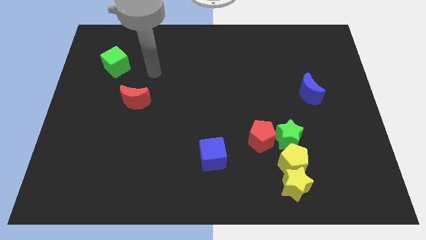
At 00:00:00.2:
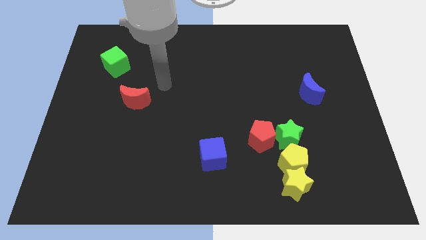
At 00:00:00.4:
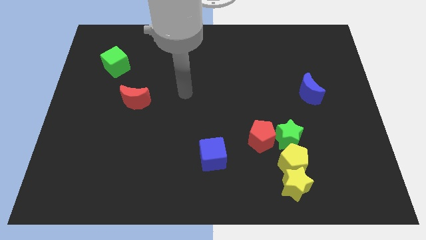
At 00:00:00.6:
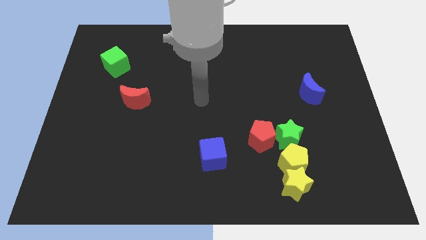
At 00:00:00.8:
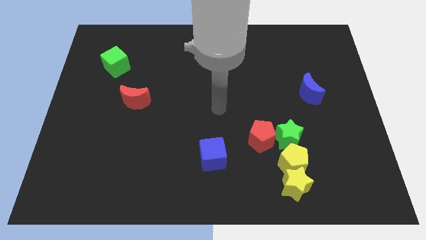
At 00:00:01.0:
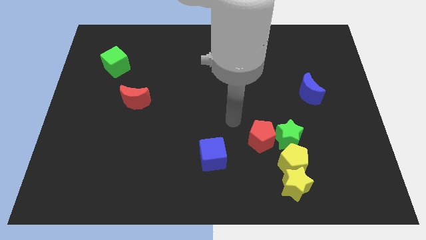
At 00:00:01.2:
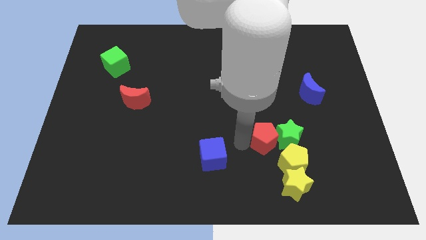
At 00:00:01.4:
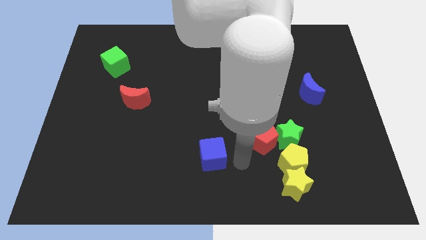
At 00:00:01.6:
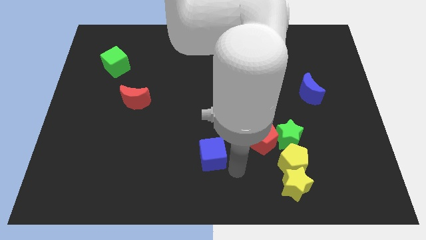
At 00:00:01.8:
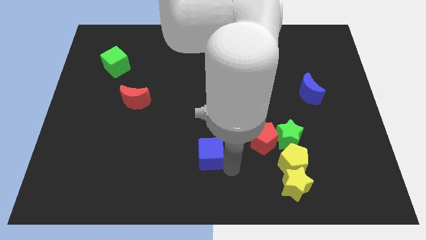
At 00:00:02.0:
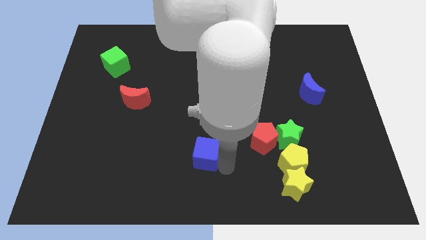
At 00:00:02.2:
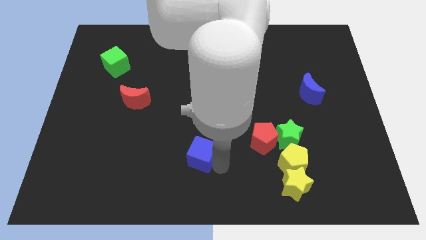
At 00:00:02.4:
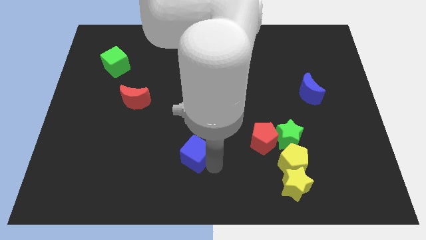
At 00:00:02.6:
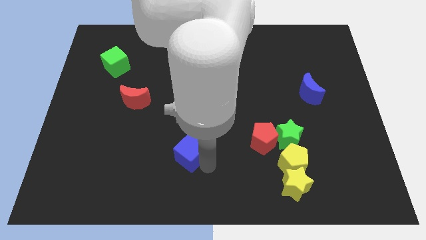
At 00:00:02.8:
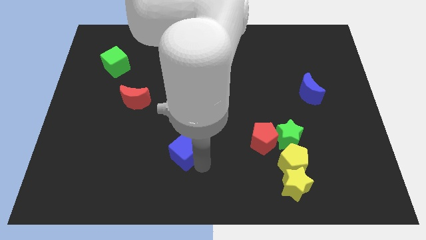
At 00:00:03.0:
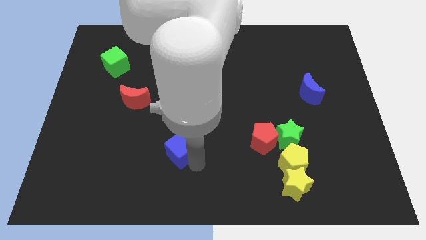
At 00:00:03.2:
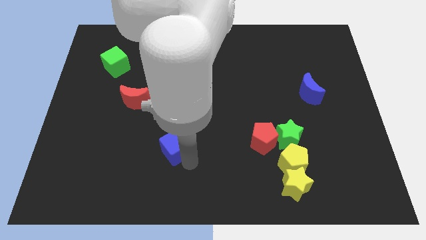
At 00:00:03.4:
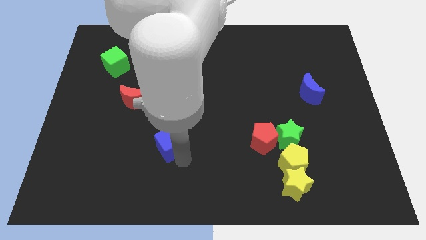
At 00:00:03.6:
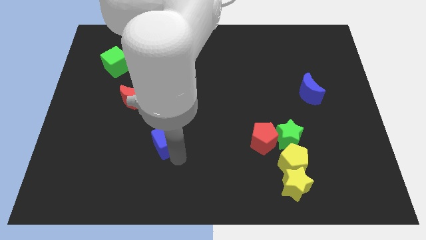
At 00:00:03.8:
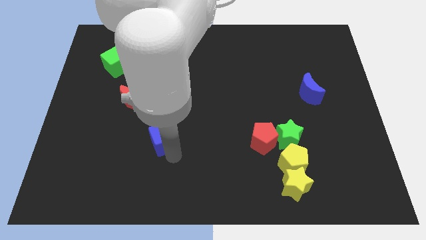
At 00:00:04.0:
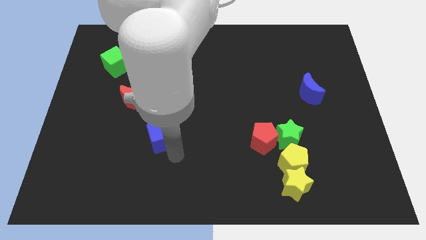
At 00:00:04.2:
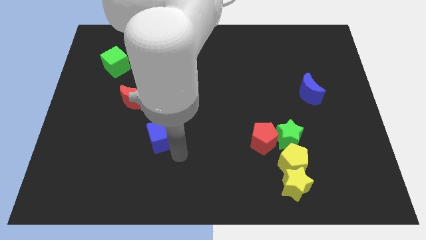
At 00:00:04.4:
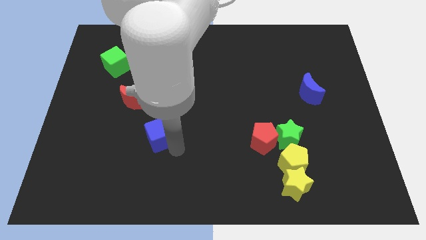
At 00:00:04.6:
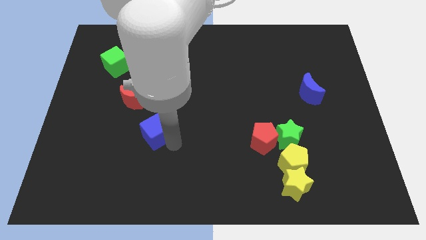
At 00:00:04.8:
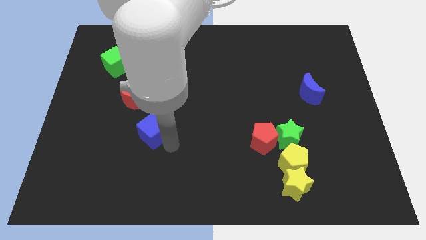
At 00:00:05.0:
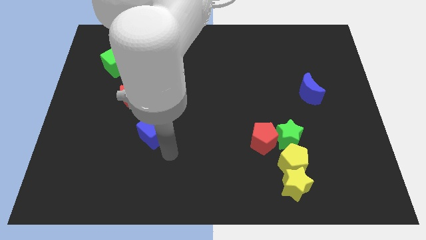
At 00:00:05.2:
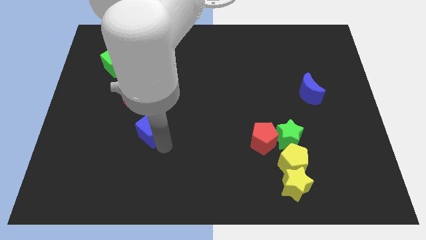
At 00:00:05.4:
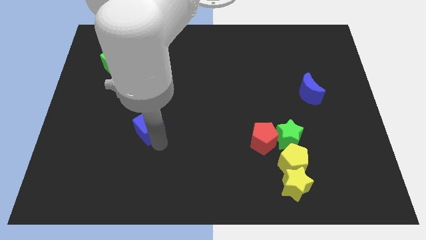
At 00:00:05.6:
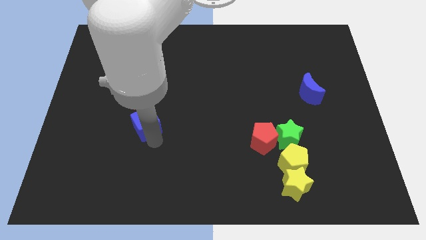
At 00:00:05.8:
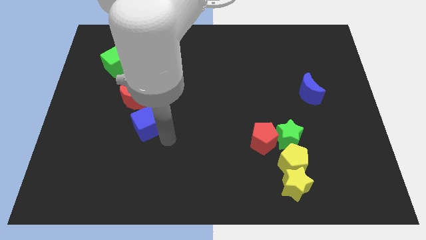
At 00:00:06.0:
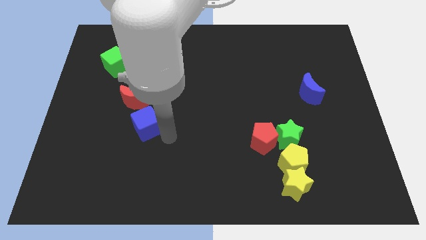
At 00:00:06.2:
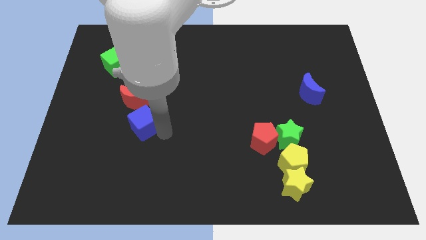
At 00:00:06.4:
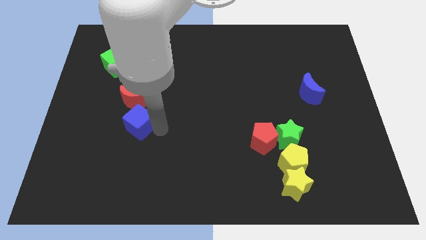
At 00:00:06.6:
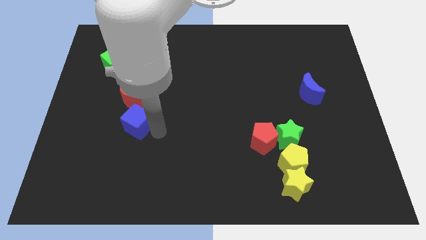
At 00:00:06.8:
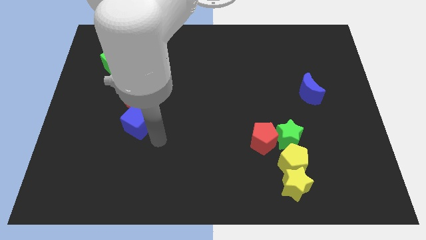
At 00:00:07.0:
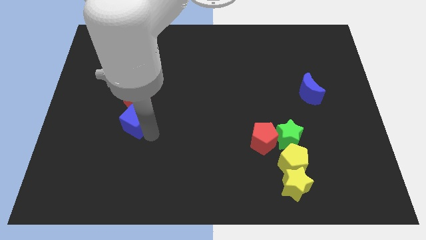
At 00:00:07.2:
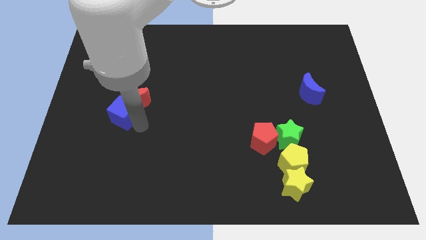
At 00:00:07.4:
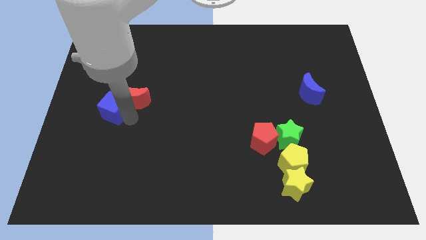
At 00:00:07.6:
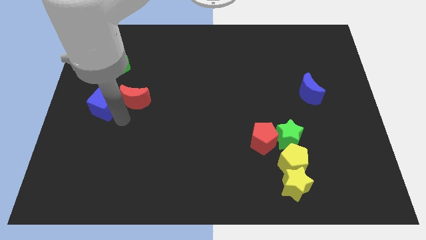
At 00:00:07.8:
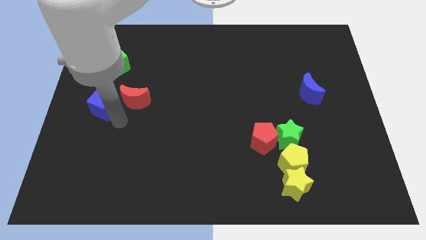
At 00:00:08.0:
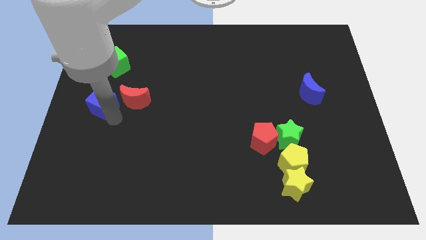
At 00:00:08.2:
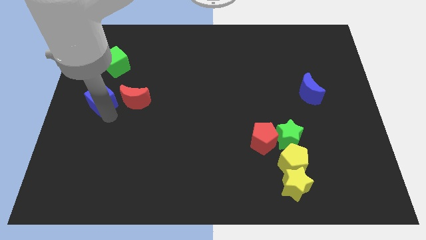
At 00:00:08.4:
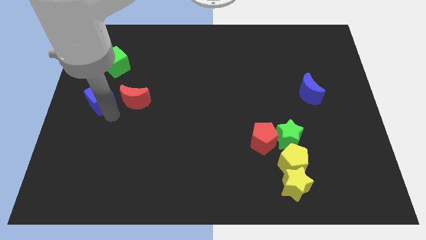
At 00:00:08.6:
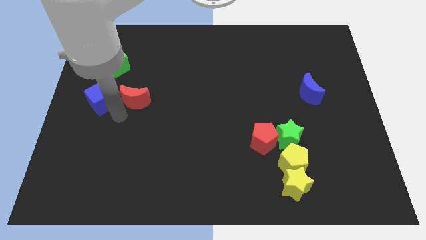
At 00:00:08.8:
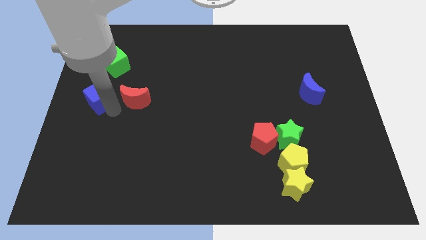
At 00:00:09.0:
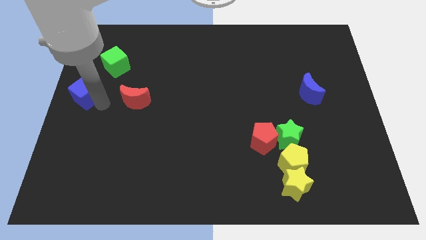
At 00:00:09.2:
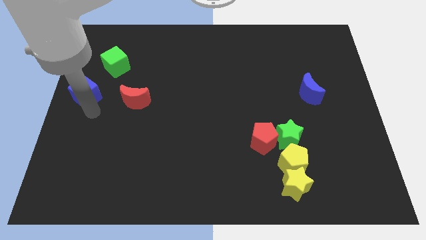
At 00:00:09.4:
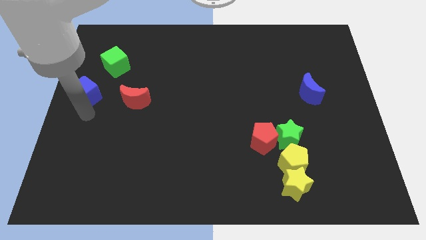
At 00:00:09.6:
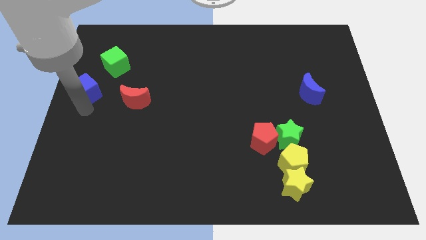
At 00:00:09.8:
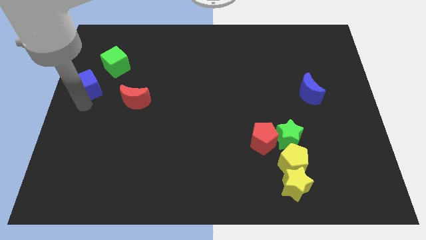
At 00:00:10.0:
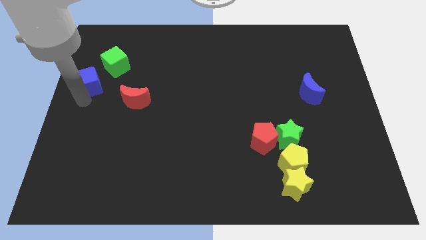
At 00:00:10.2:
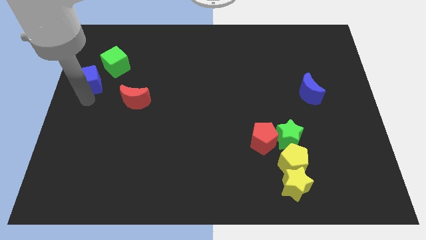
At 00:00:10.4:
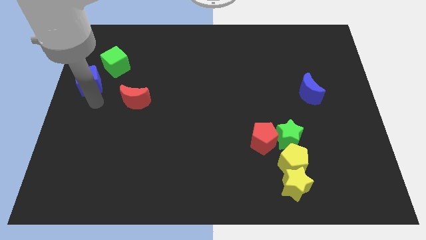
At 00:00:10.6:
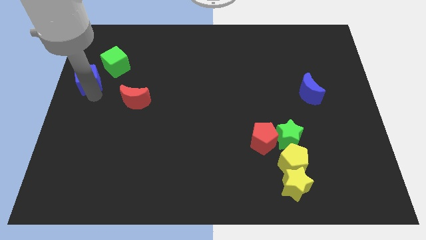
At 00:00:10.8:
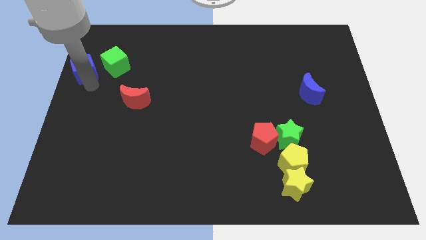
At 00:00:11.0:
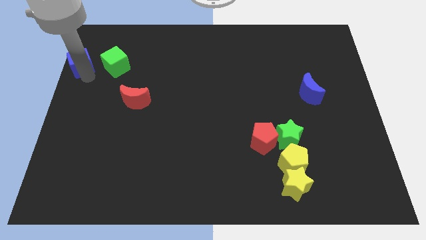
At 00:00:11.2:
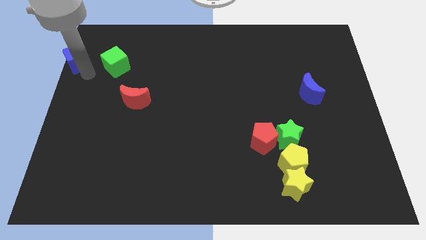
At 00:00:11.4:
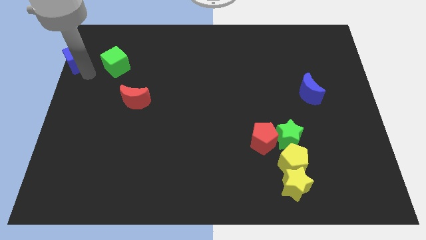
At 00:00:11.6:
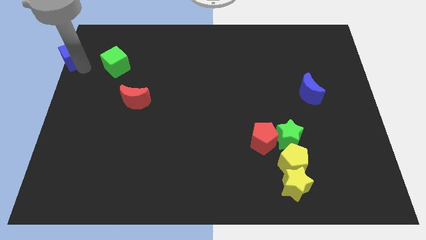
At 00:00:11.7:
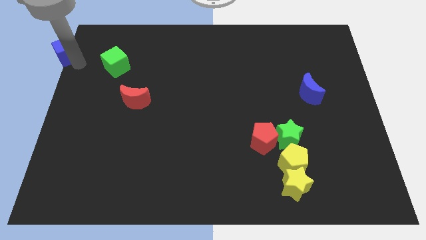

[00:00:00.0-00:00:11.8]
move the blue cube to the top left corner
